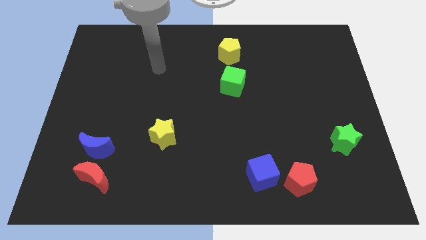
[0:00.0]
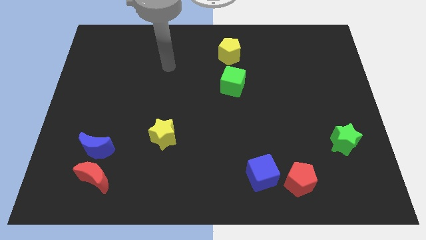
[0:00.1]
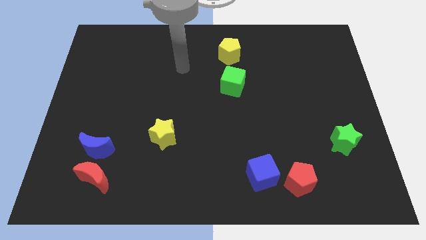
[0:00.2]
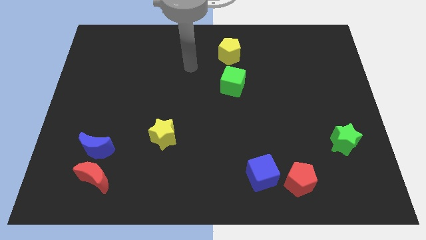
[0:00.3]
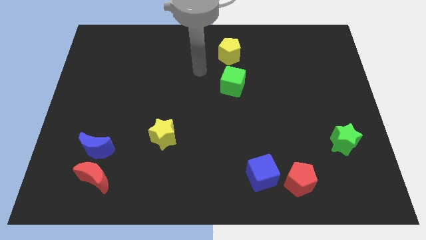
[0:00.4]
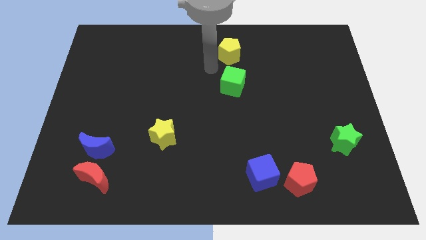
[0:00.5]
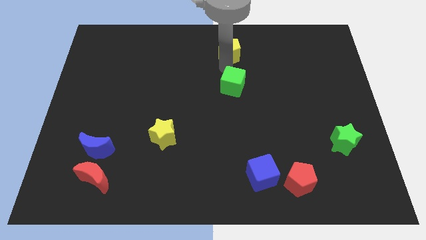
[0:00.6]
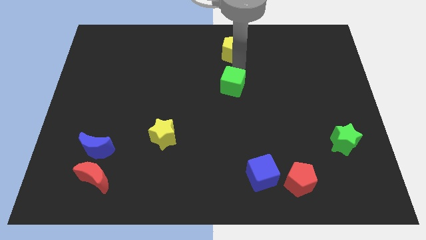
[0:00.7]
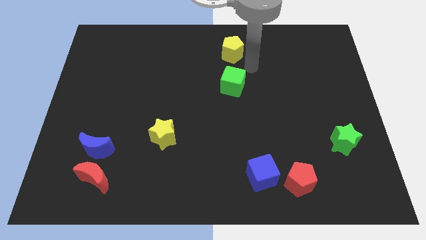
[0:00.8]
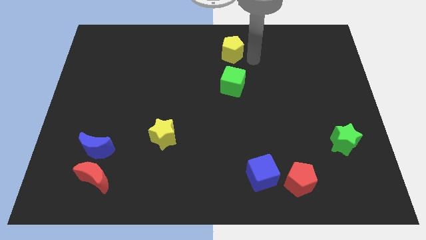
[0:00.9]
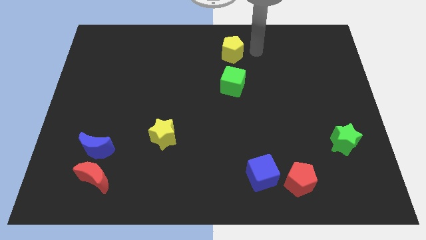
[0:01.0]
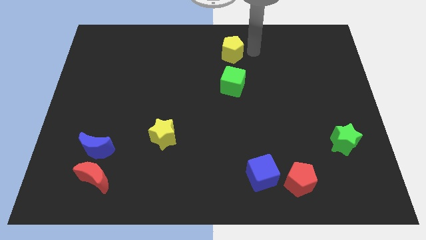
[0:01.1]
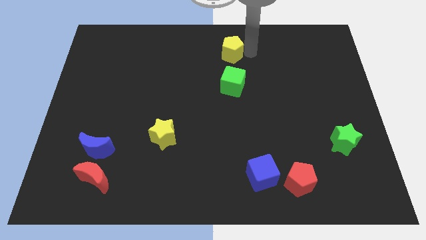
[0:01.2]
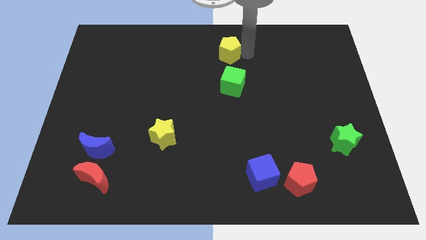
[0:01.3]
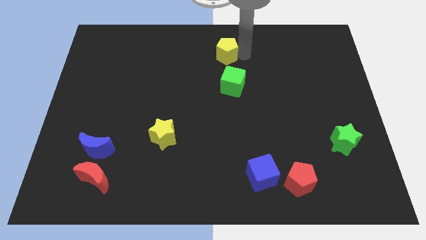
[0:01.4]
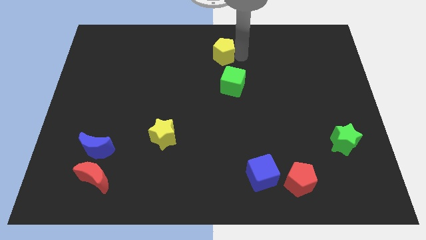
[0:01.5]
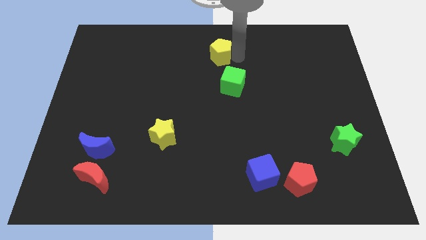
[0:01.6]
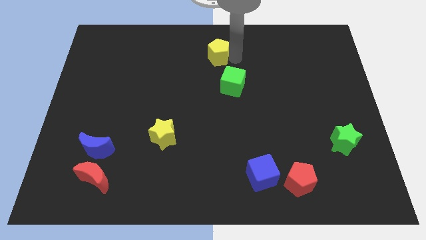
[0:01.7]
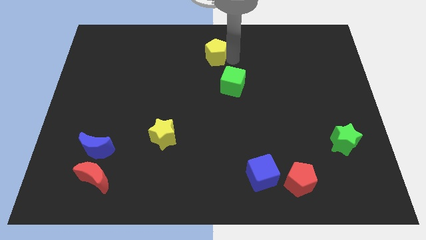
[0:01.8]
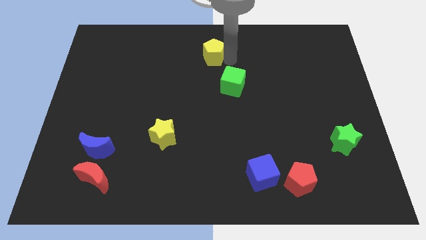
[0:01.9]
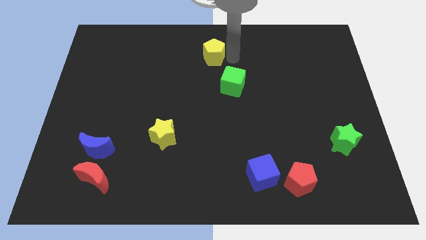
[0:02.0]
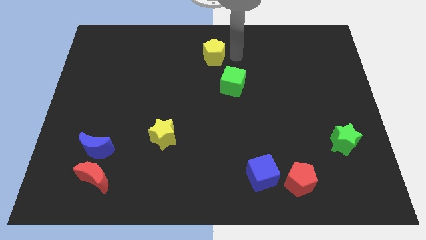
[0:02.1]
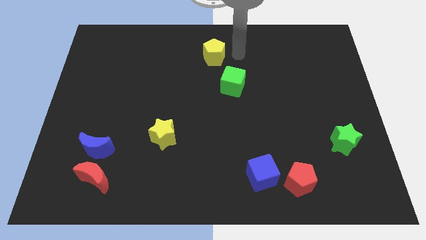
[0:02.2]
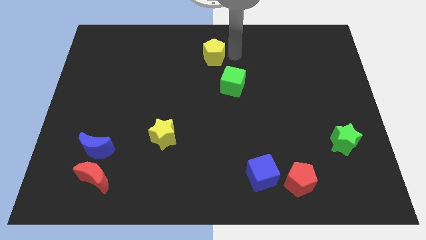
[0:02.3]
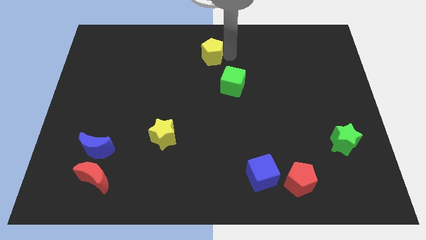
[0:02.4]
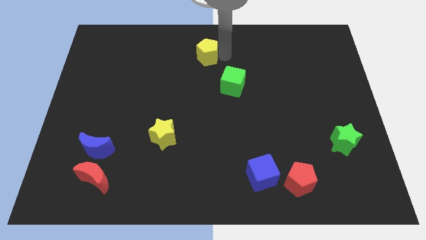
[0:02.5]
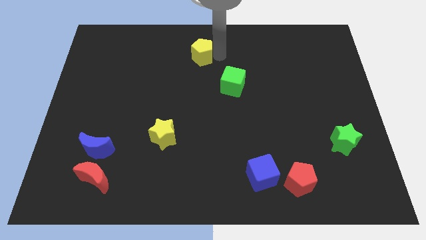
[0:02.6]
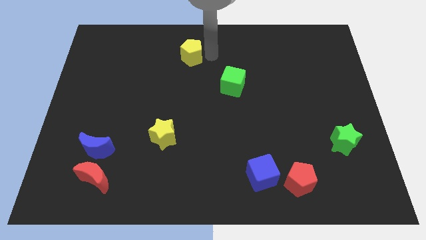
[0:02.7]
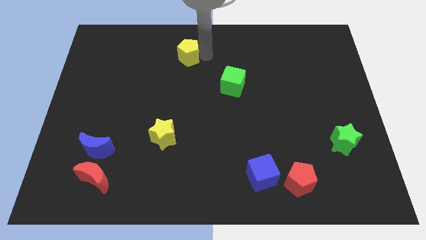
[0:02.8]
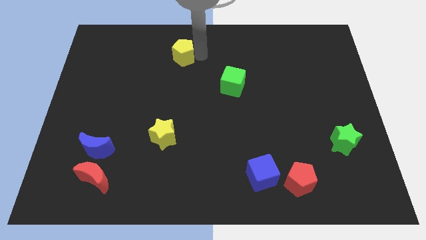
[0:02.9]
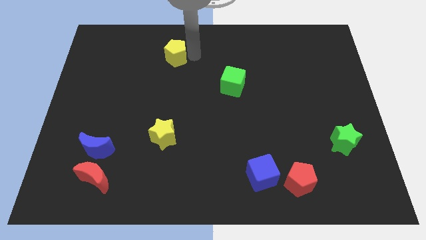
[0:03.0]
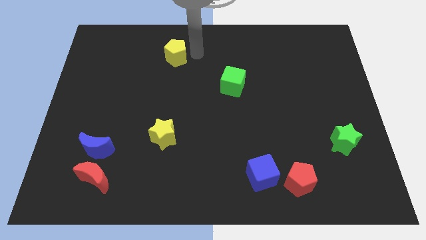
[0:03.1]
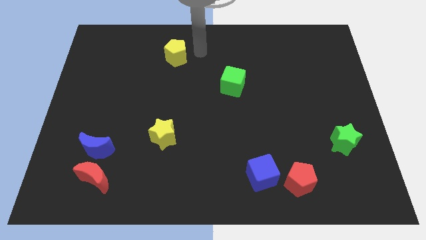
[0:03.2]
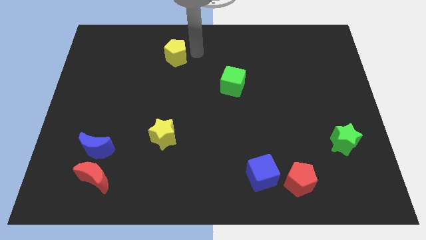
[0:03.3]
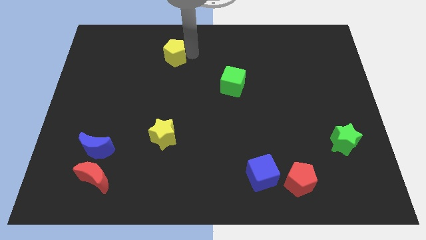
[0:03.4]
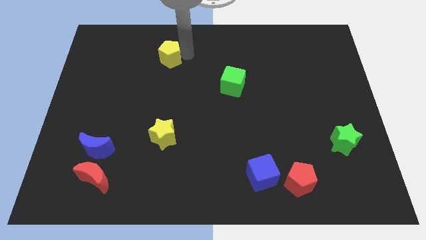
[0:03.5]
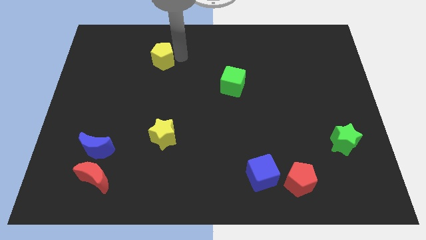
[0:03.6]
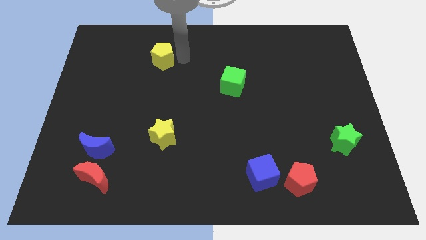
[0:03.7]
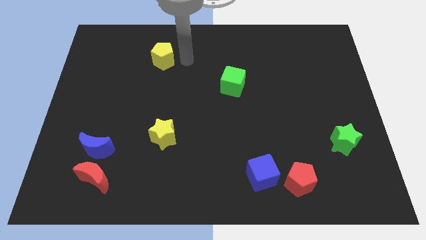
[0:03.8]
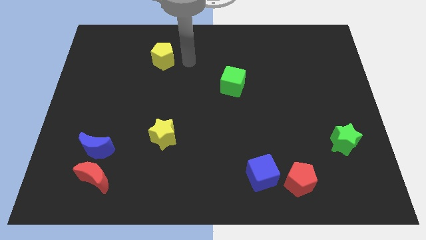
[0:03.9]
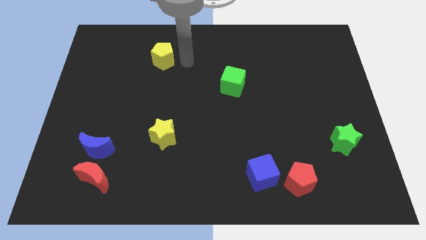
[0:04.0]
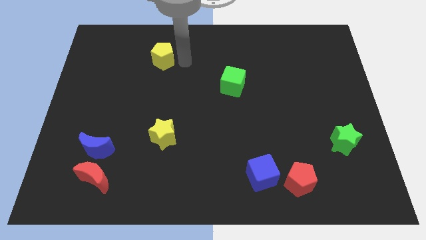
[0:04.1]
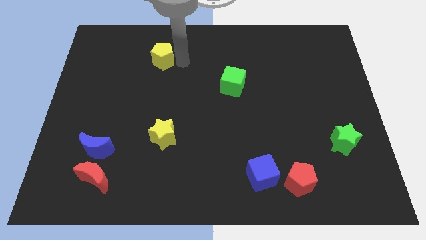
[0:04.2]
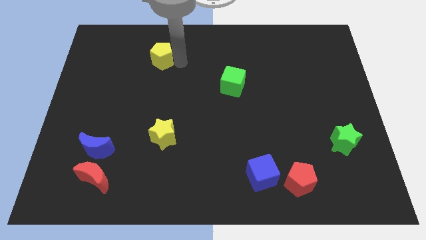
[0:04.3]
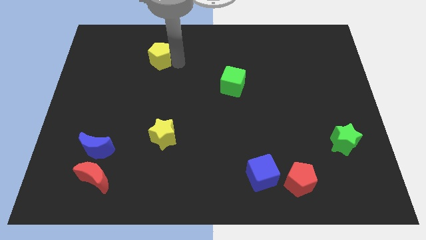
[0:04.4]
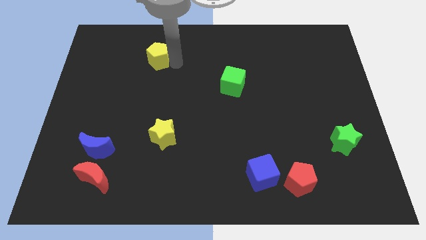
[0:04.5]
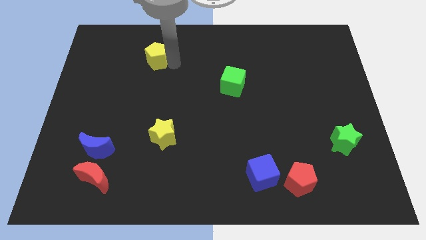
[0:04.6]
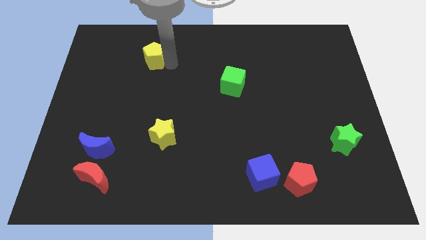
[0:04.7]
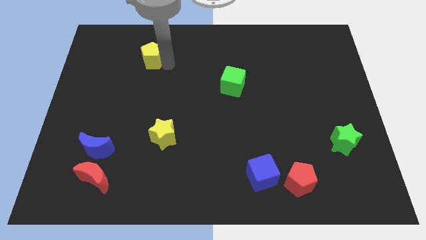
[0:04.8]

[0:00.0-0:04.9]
move the yellow pentagon to the left

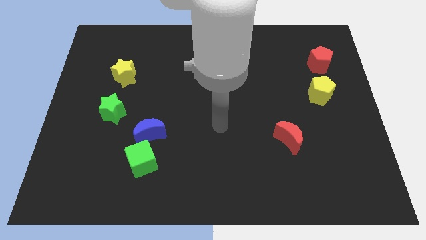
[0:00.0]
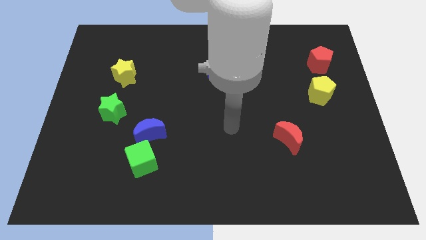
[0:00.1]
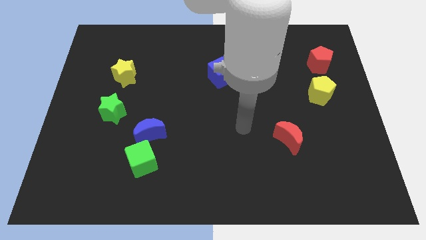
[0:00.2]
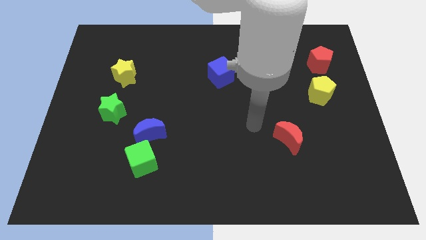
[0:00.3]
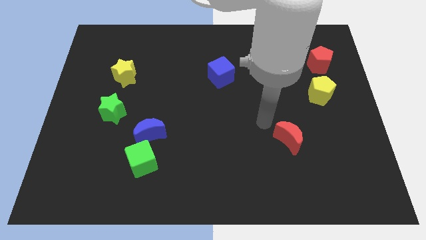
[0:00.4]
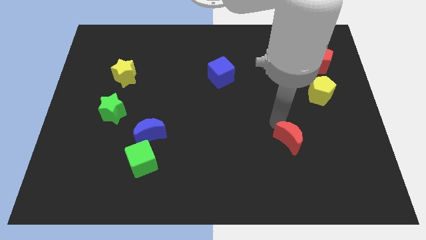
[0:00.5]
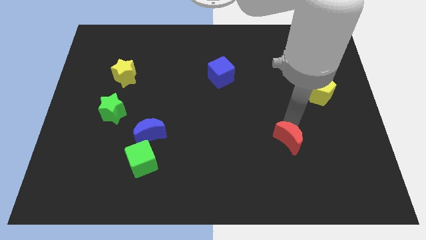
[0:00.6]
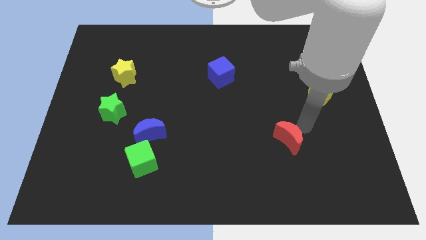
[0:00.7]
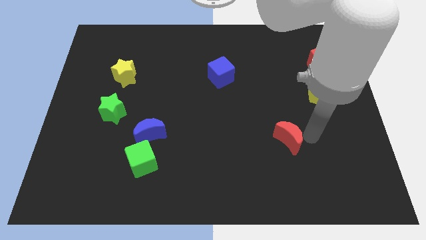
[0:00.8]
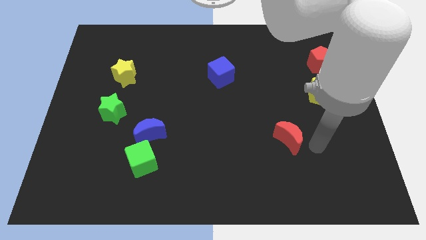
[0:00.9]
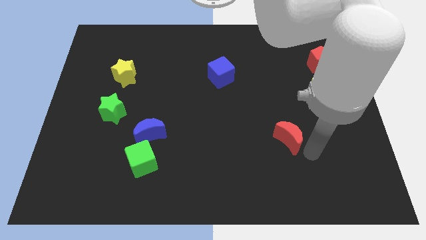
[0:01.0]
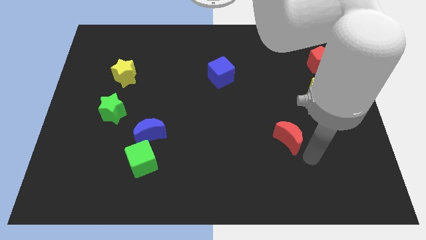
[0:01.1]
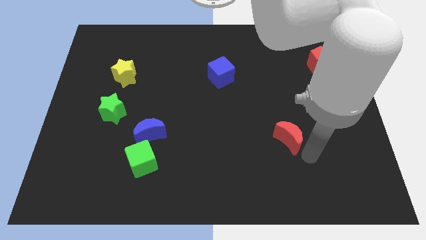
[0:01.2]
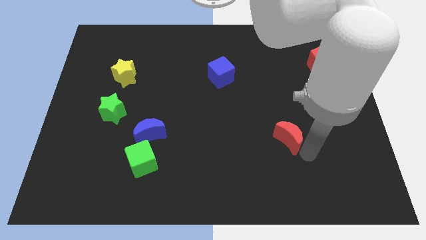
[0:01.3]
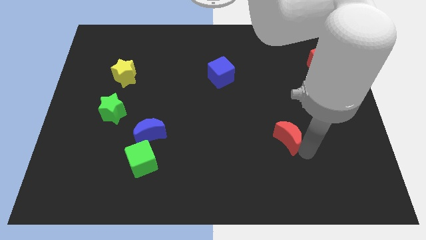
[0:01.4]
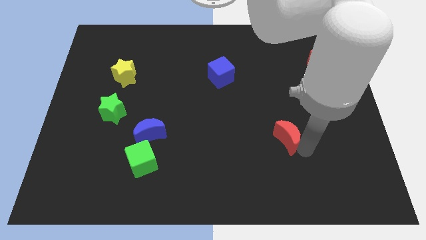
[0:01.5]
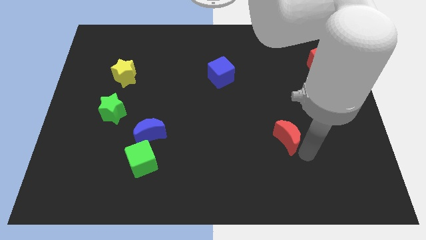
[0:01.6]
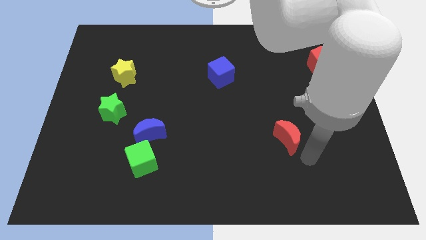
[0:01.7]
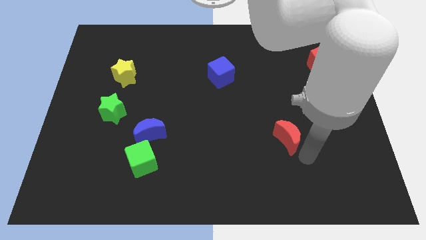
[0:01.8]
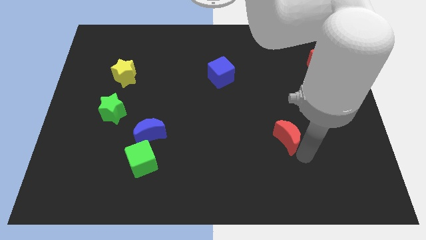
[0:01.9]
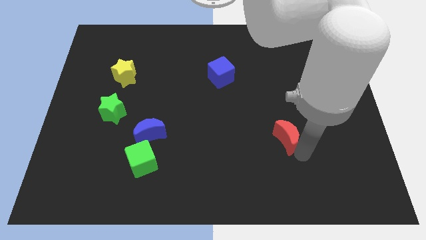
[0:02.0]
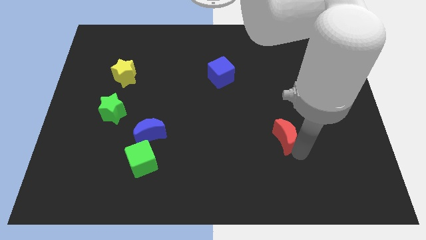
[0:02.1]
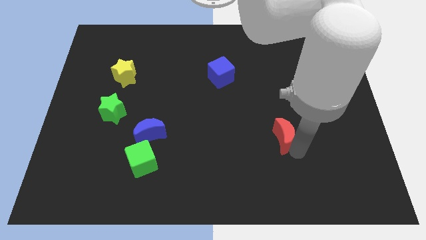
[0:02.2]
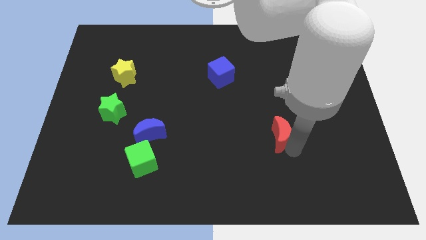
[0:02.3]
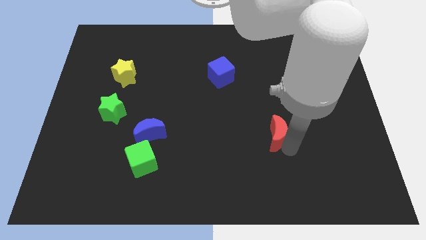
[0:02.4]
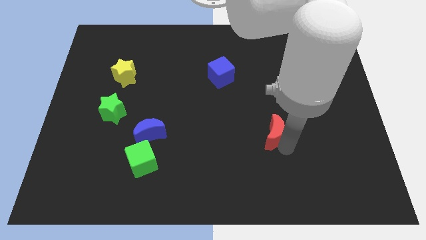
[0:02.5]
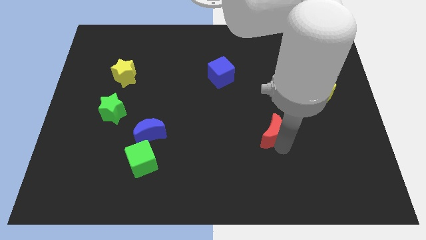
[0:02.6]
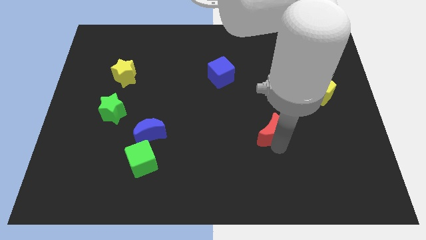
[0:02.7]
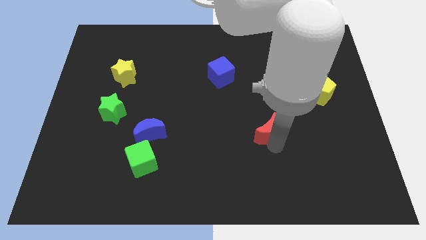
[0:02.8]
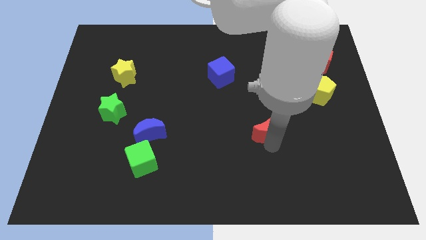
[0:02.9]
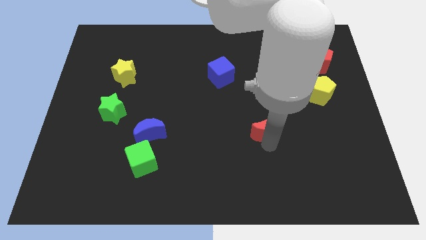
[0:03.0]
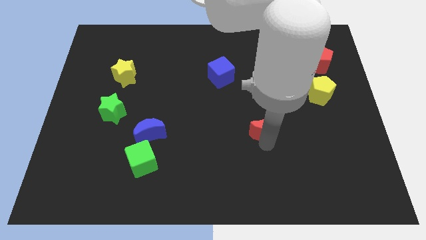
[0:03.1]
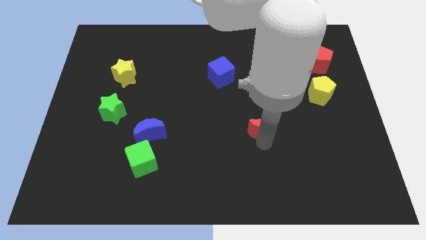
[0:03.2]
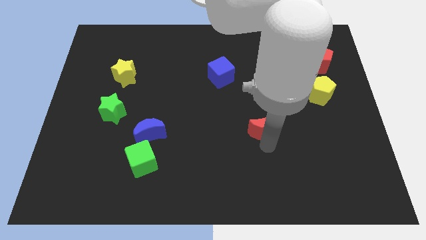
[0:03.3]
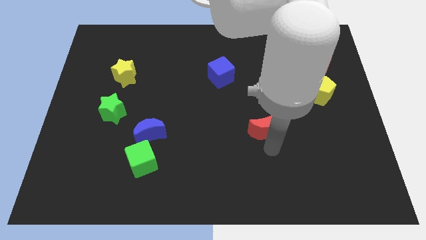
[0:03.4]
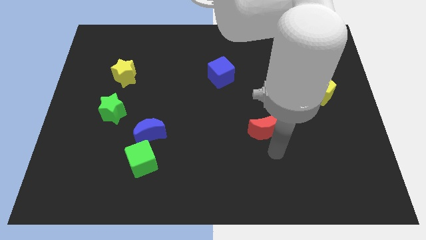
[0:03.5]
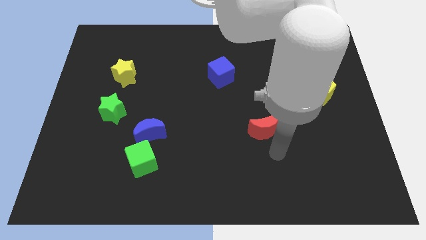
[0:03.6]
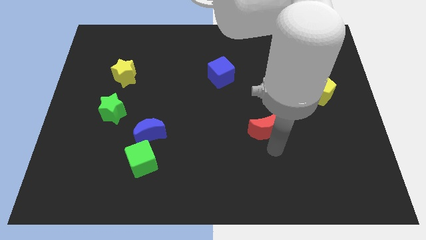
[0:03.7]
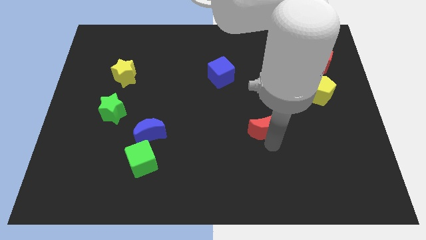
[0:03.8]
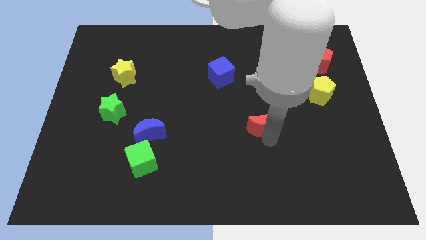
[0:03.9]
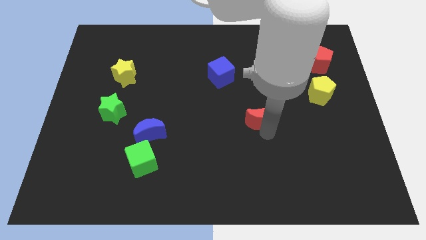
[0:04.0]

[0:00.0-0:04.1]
move the red moon a little bit upwards and to the left
